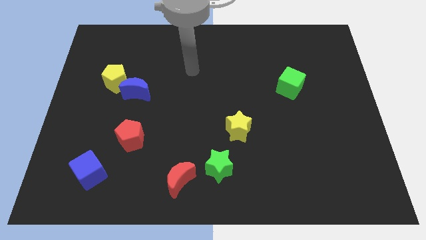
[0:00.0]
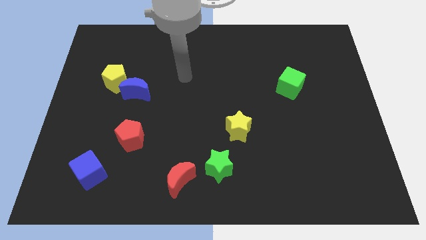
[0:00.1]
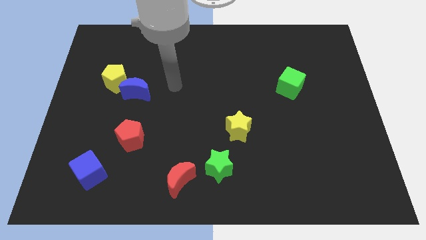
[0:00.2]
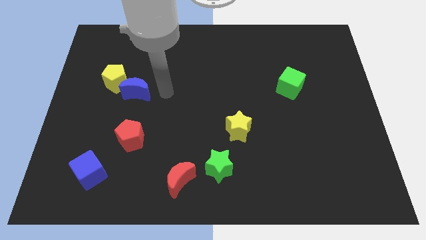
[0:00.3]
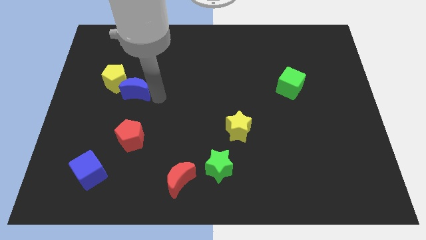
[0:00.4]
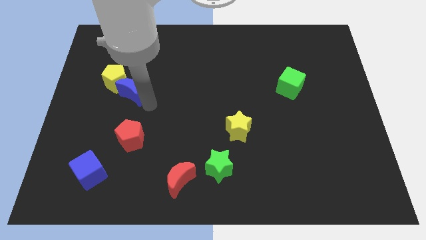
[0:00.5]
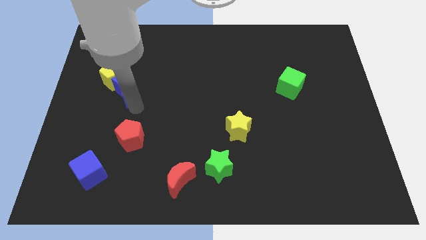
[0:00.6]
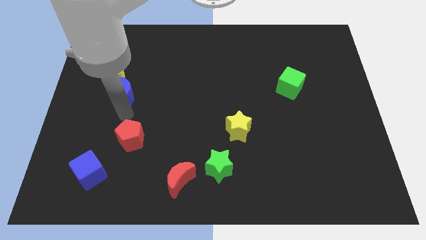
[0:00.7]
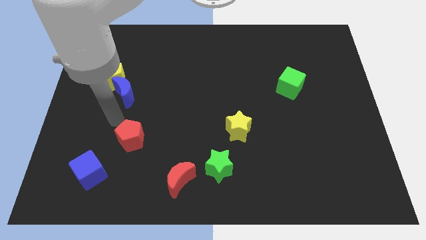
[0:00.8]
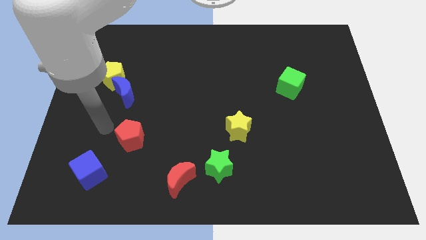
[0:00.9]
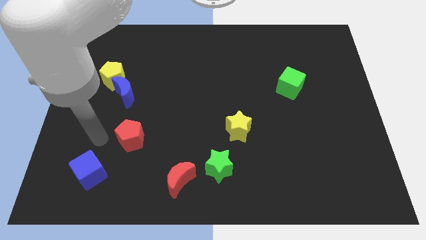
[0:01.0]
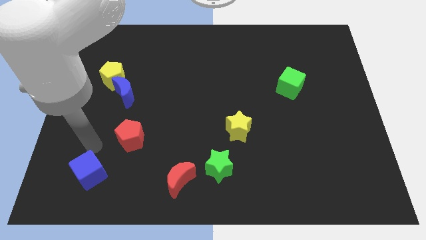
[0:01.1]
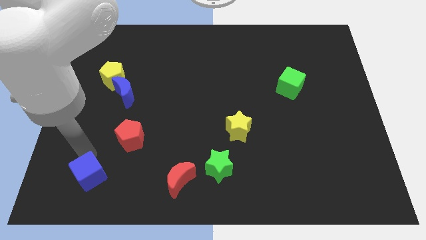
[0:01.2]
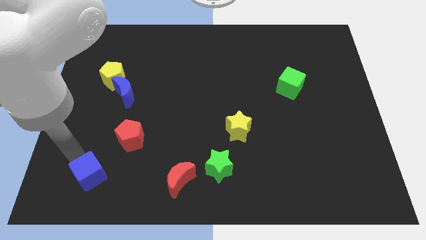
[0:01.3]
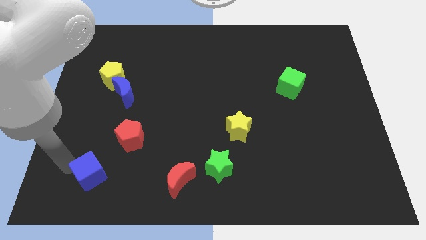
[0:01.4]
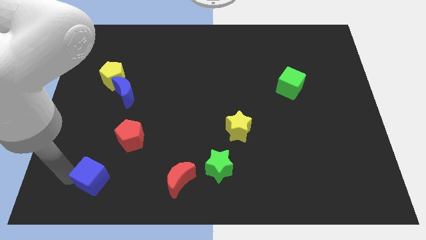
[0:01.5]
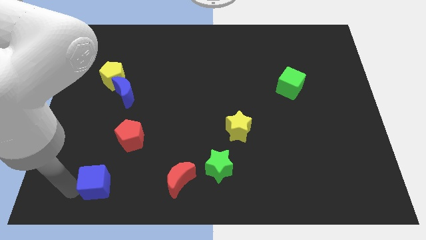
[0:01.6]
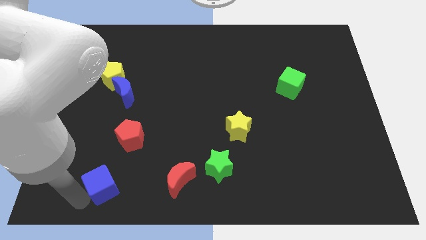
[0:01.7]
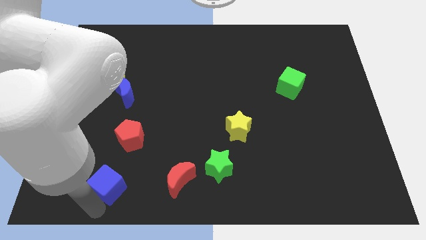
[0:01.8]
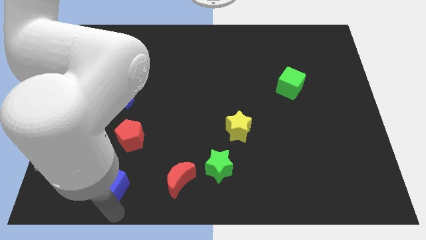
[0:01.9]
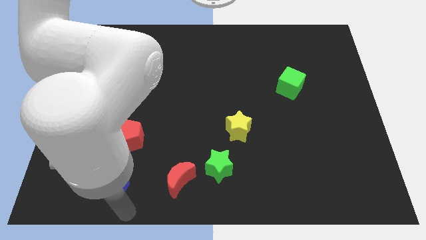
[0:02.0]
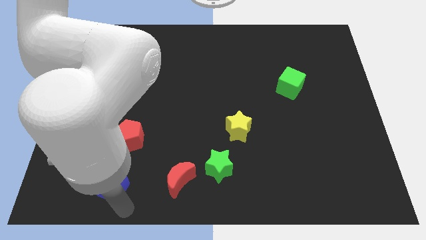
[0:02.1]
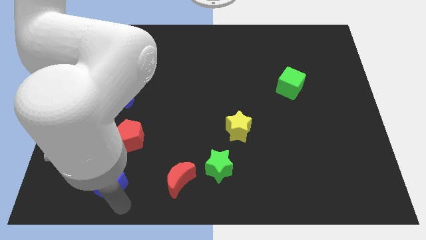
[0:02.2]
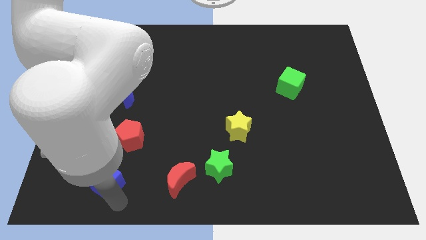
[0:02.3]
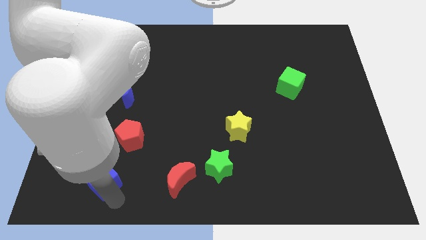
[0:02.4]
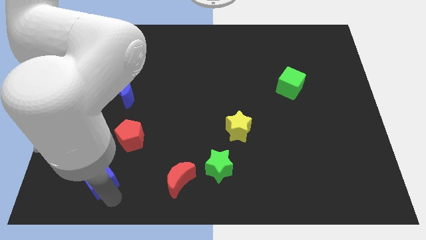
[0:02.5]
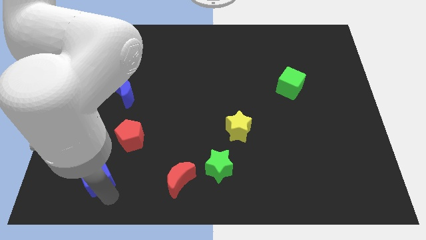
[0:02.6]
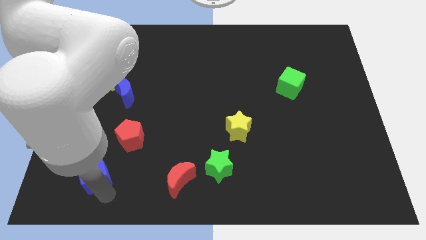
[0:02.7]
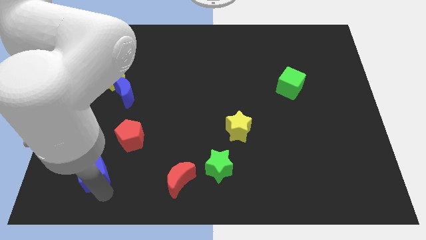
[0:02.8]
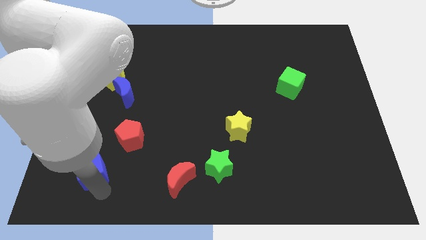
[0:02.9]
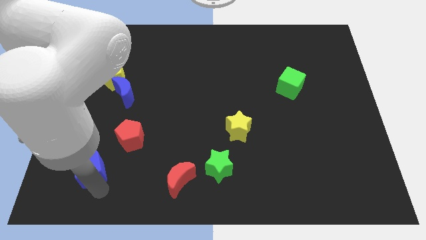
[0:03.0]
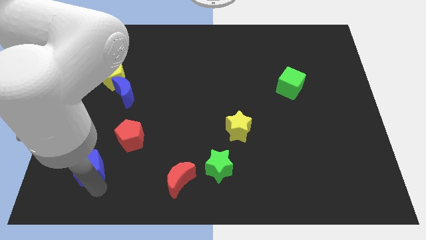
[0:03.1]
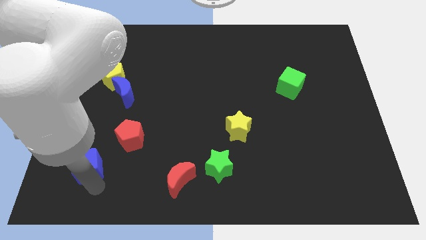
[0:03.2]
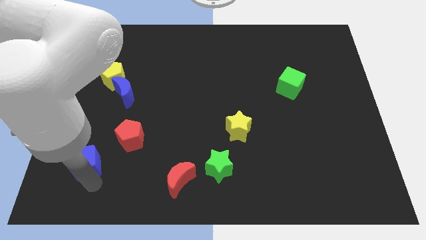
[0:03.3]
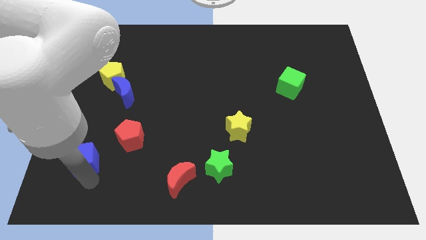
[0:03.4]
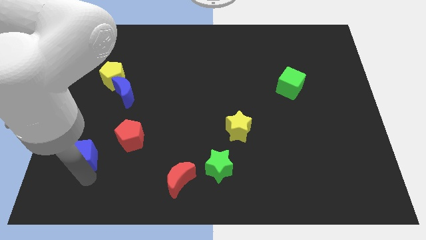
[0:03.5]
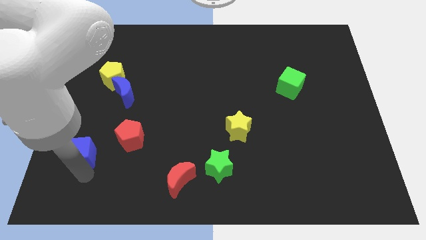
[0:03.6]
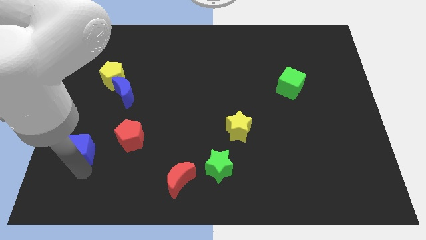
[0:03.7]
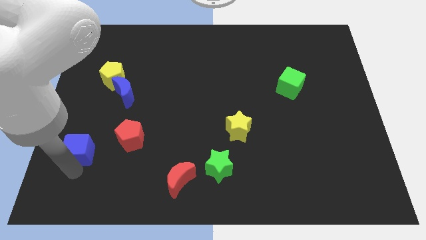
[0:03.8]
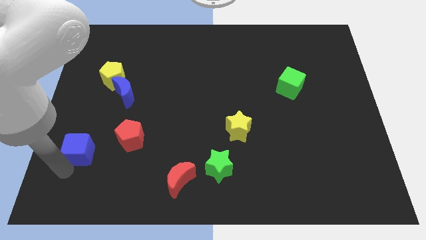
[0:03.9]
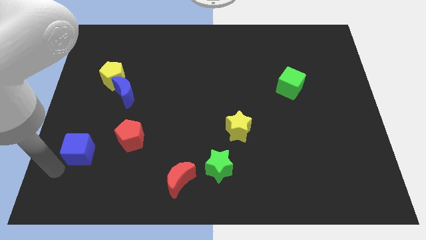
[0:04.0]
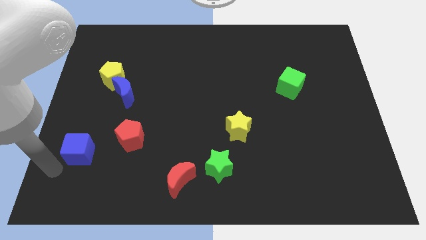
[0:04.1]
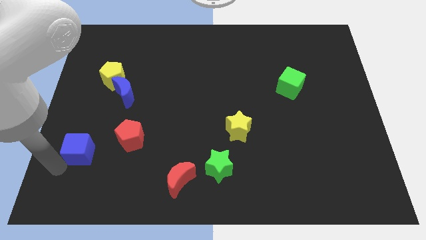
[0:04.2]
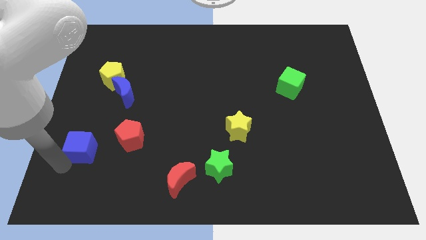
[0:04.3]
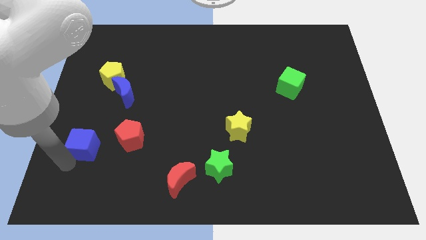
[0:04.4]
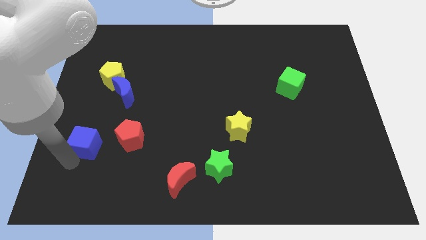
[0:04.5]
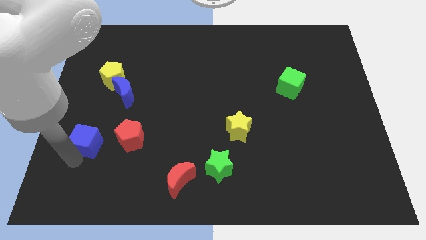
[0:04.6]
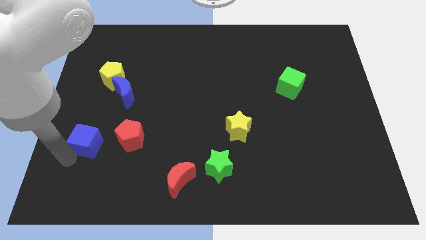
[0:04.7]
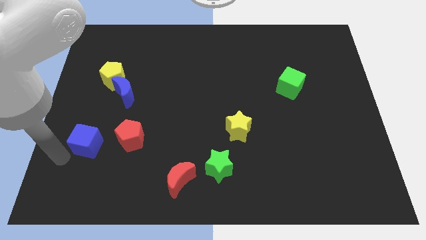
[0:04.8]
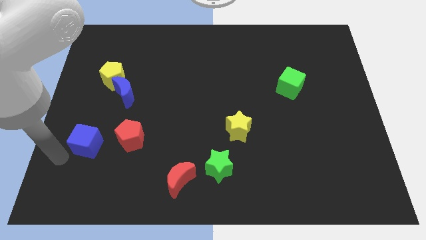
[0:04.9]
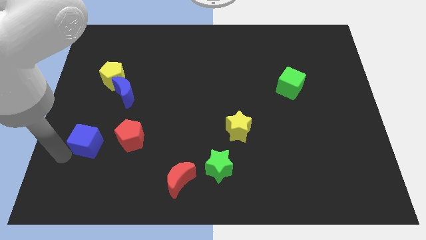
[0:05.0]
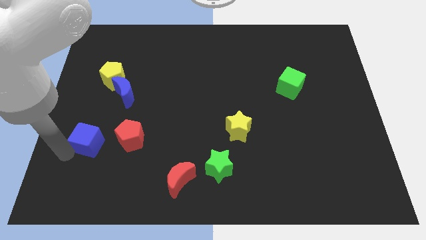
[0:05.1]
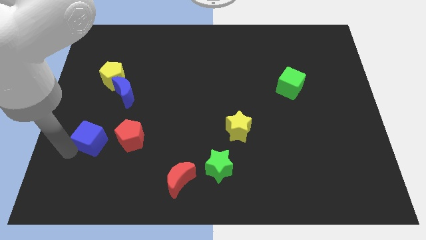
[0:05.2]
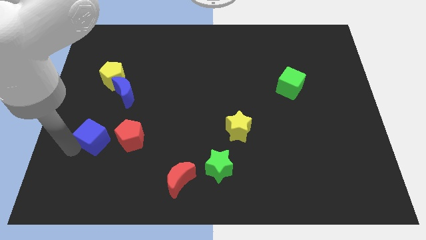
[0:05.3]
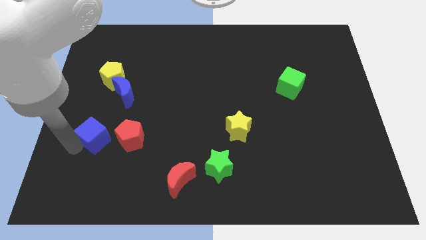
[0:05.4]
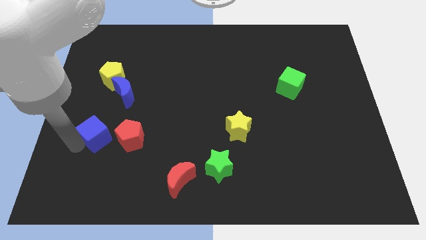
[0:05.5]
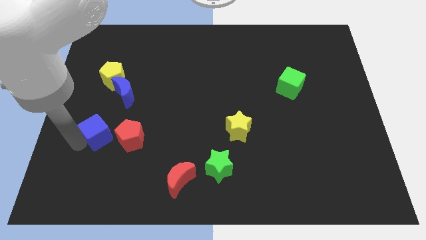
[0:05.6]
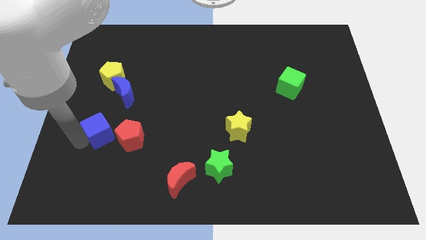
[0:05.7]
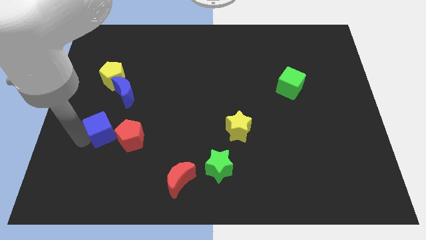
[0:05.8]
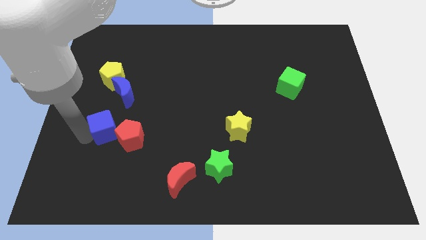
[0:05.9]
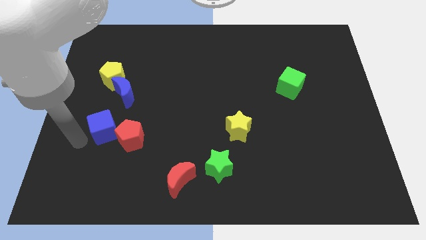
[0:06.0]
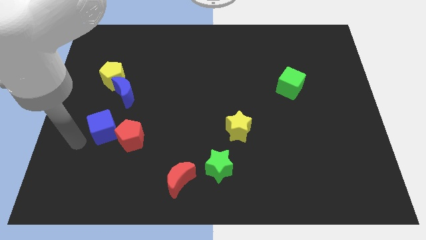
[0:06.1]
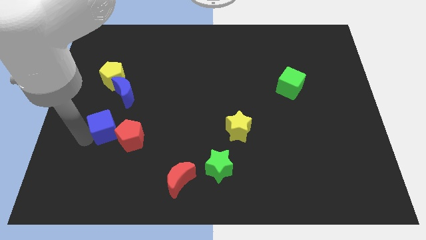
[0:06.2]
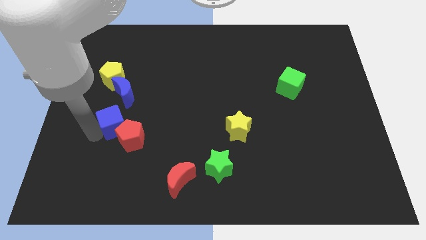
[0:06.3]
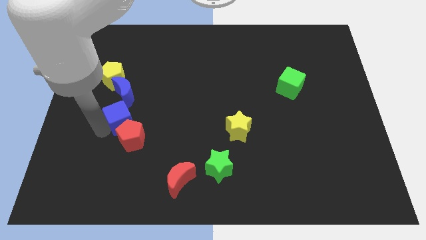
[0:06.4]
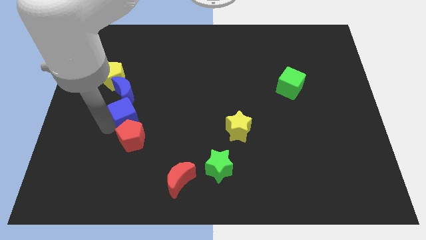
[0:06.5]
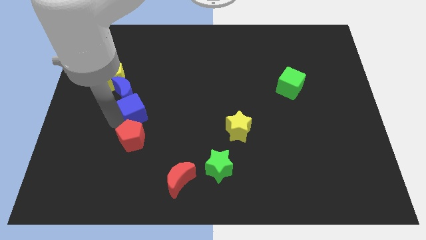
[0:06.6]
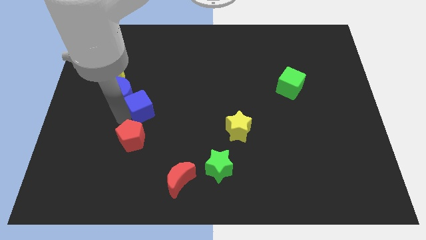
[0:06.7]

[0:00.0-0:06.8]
put the blue cube to the right side of the blue moon

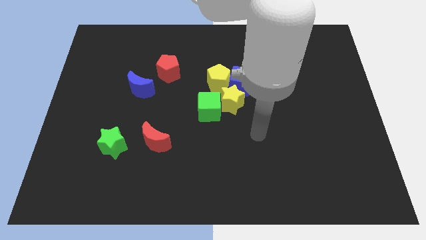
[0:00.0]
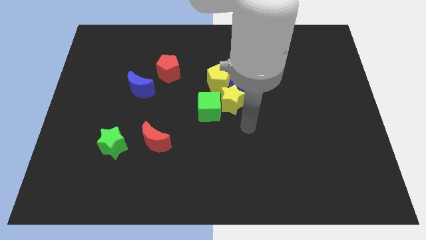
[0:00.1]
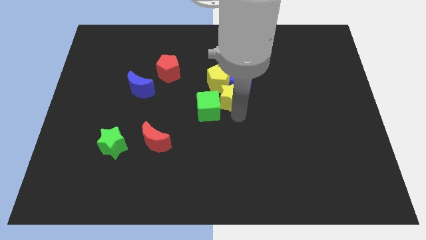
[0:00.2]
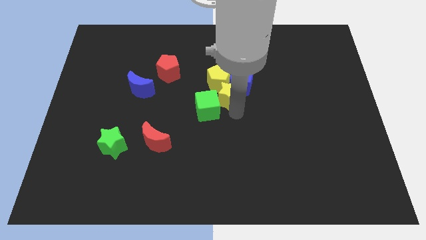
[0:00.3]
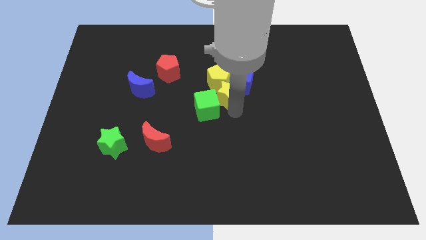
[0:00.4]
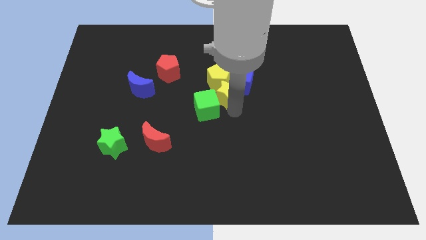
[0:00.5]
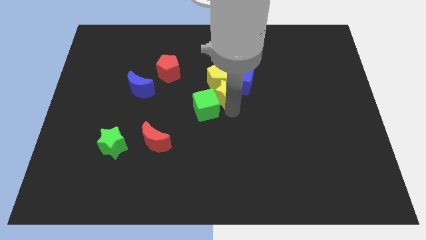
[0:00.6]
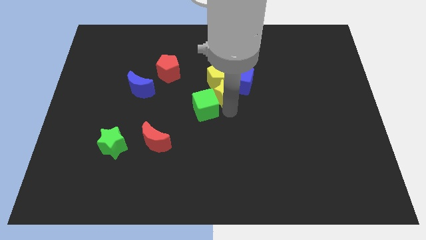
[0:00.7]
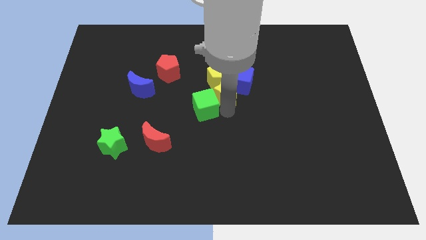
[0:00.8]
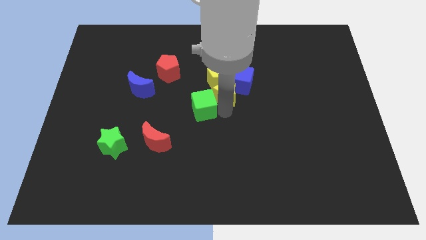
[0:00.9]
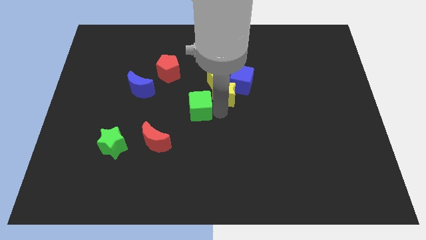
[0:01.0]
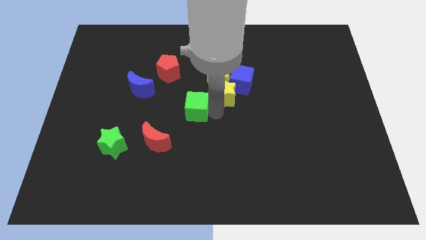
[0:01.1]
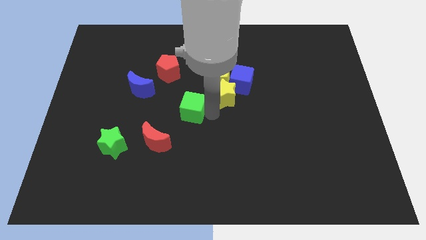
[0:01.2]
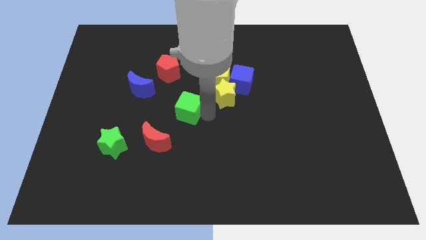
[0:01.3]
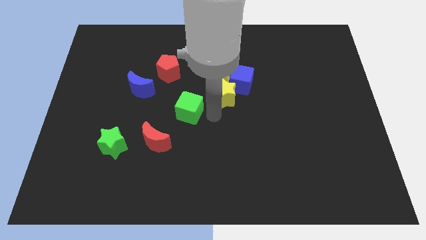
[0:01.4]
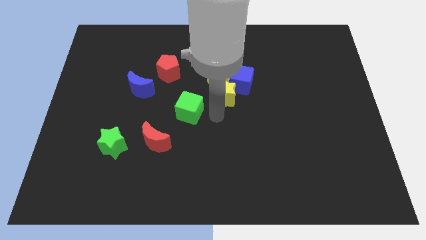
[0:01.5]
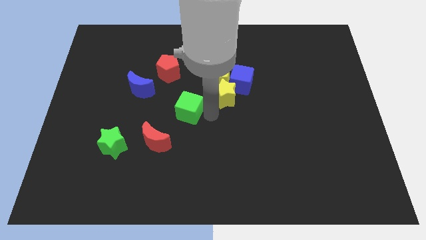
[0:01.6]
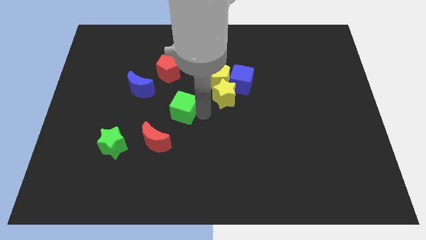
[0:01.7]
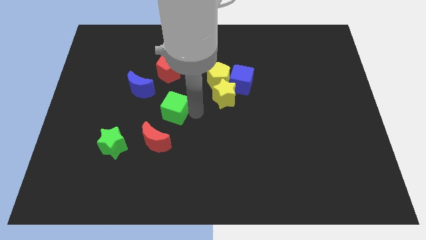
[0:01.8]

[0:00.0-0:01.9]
slide the green cube above the red moon
